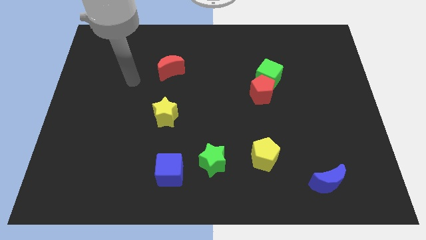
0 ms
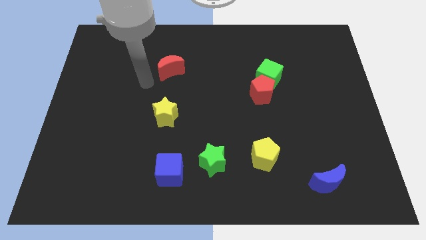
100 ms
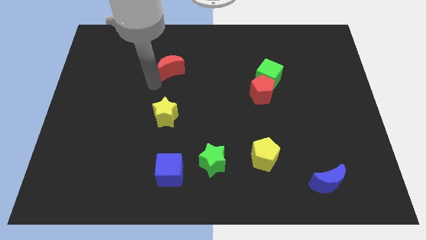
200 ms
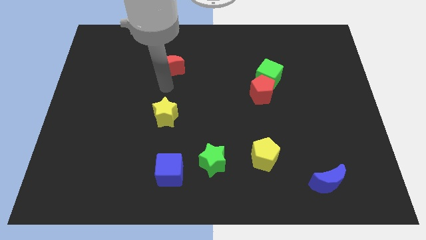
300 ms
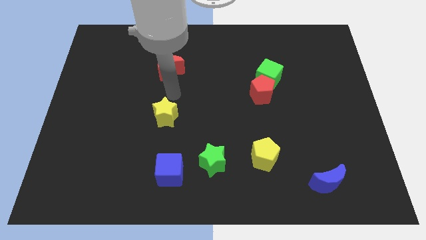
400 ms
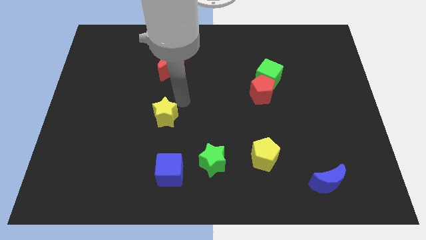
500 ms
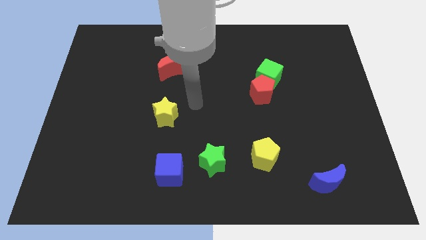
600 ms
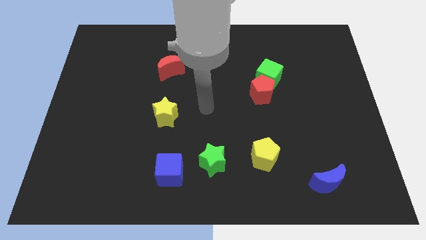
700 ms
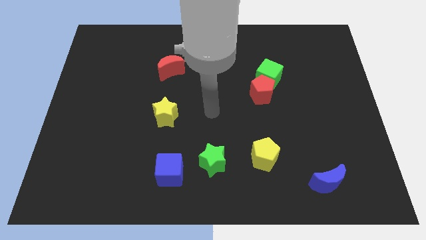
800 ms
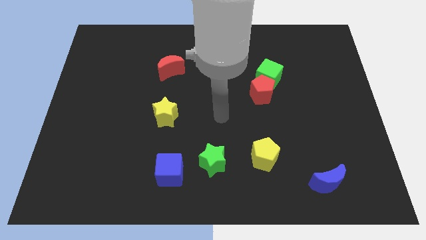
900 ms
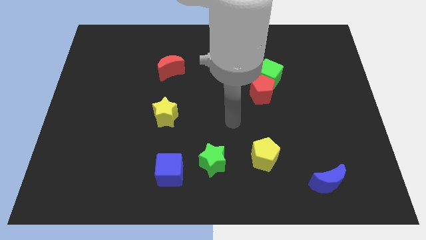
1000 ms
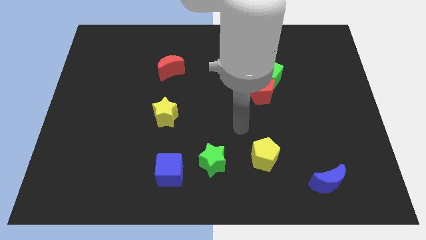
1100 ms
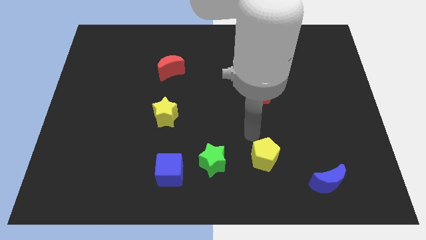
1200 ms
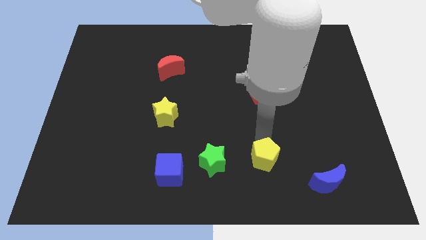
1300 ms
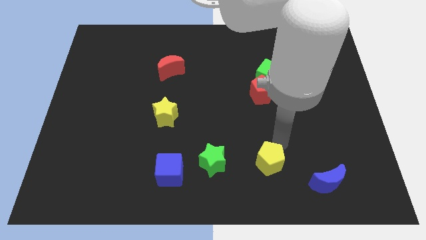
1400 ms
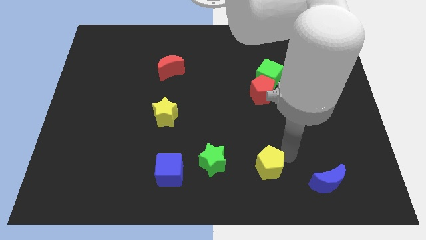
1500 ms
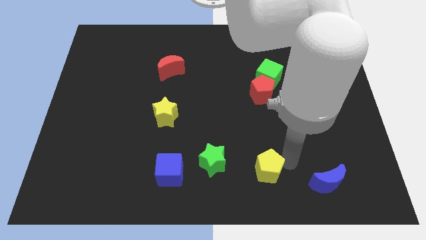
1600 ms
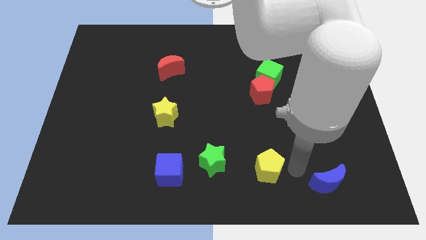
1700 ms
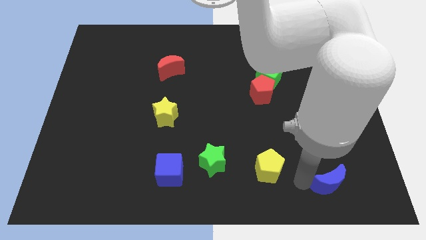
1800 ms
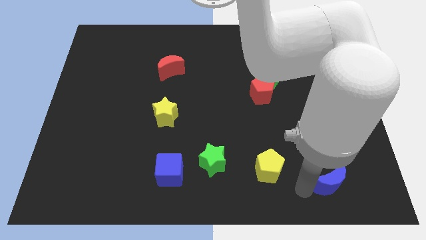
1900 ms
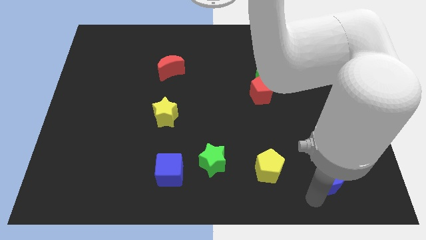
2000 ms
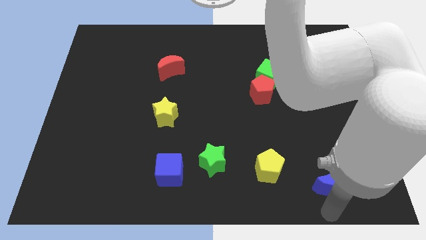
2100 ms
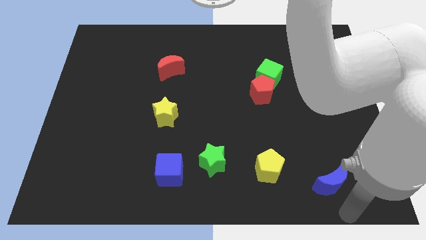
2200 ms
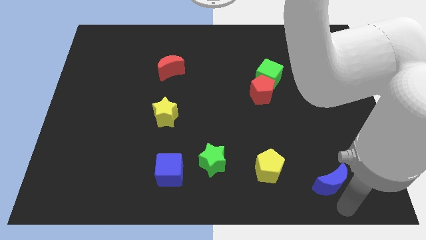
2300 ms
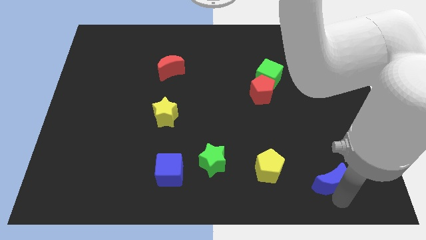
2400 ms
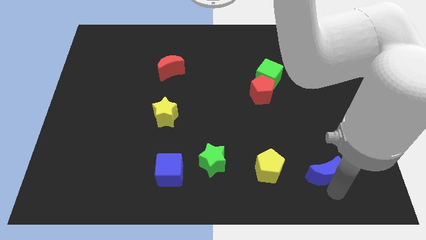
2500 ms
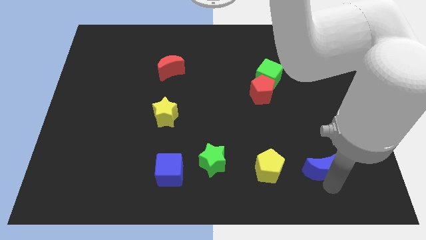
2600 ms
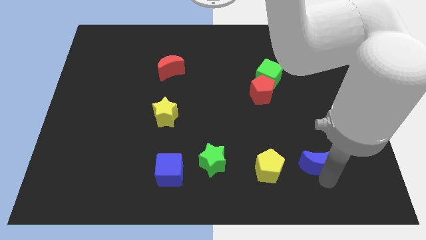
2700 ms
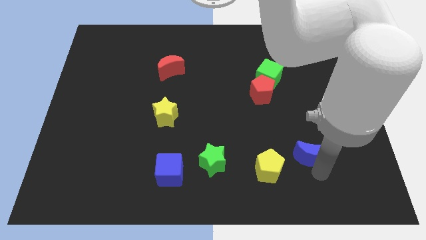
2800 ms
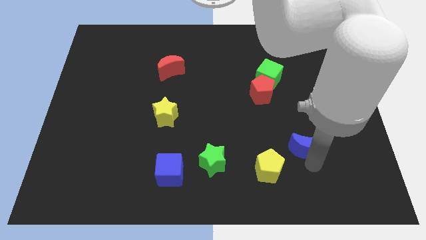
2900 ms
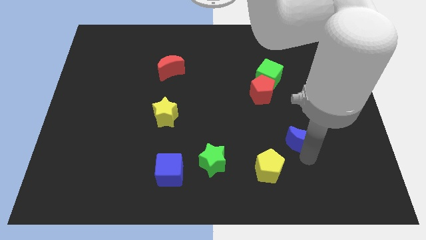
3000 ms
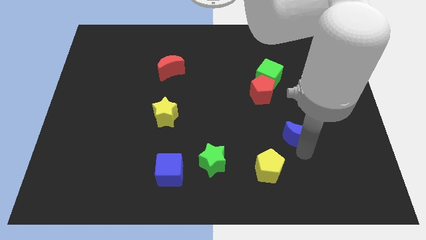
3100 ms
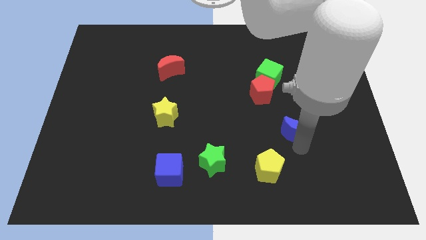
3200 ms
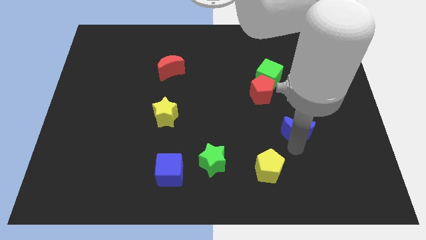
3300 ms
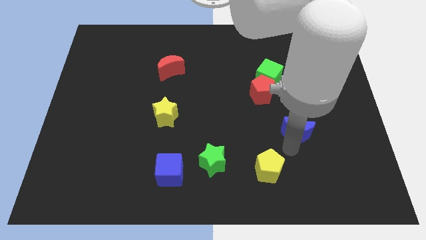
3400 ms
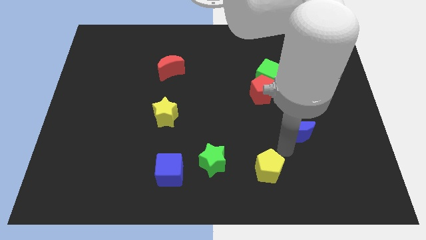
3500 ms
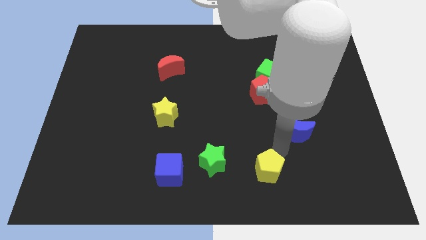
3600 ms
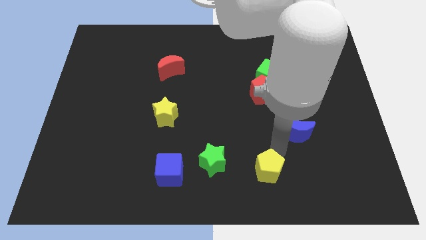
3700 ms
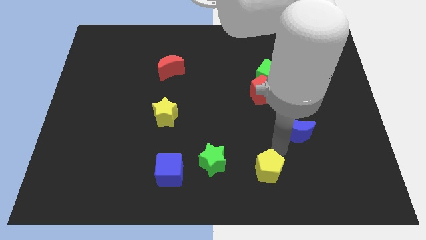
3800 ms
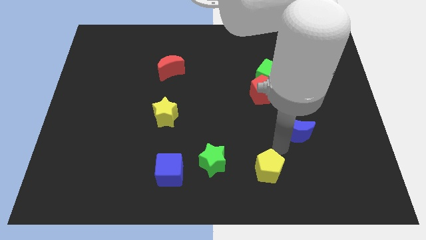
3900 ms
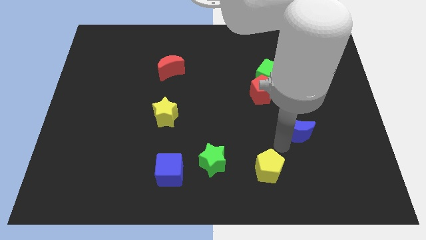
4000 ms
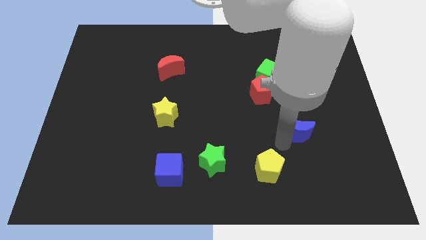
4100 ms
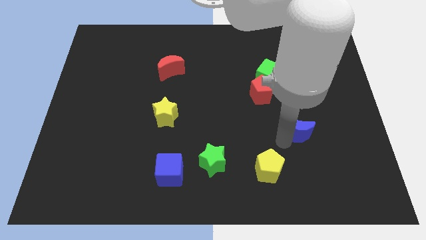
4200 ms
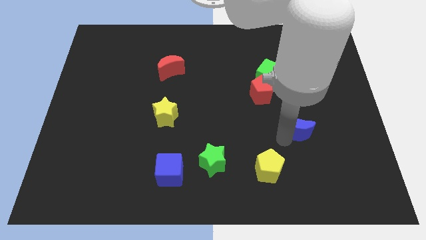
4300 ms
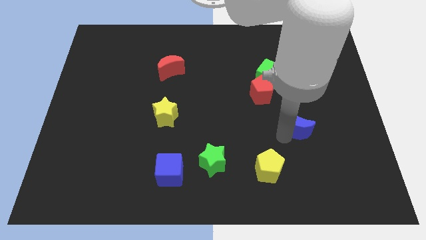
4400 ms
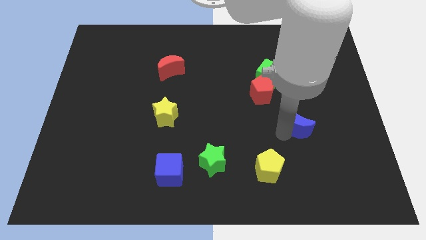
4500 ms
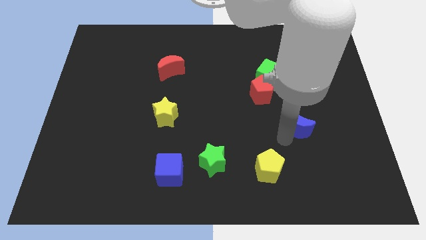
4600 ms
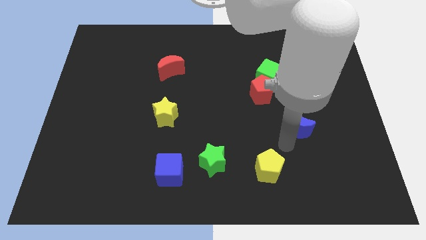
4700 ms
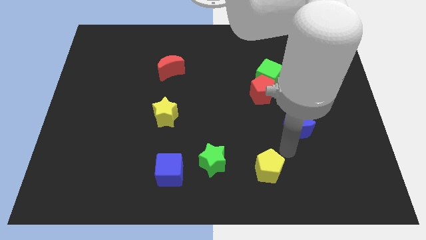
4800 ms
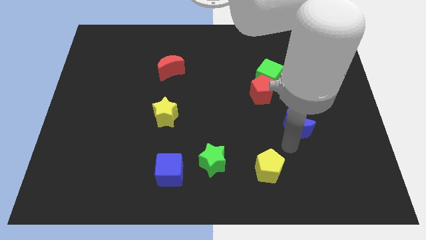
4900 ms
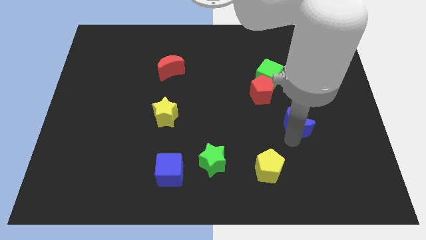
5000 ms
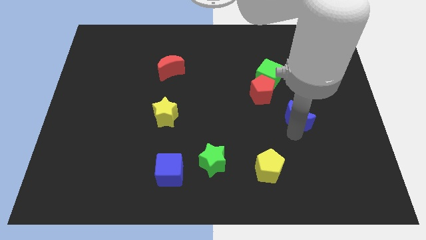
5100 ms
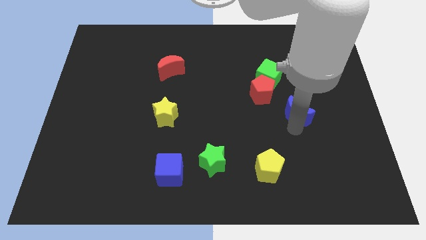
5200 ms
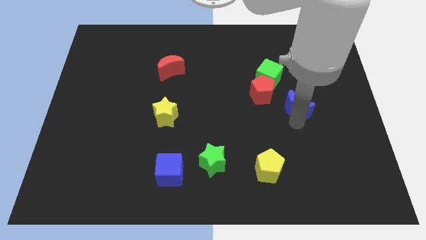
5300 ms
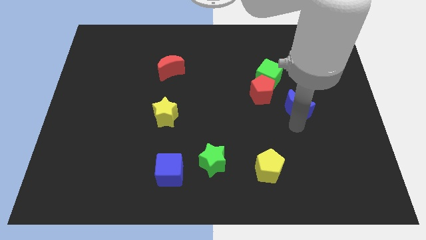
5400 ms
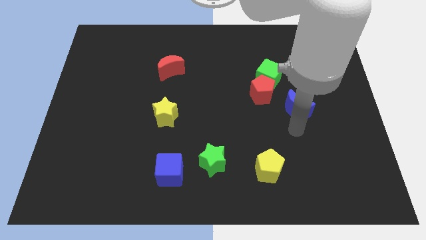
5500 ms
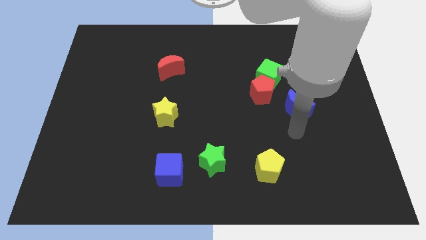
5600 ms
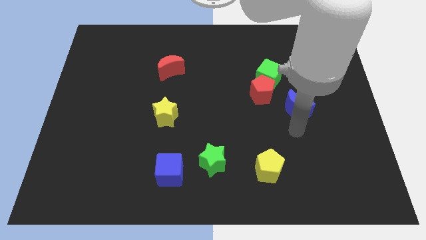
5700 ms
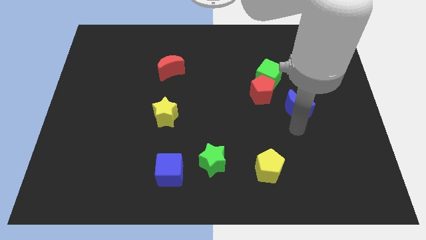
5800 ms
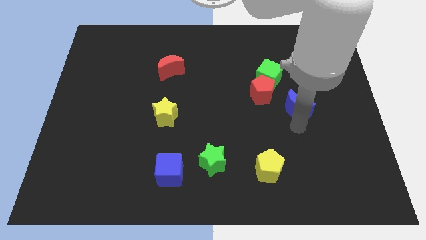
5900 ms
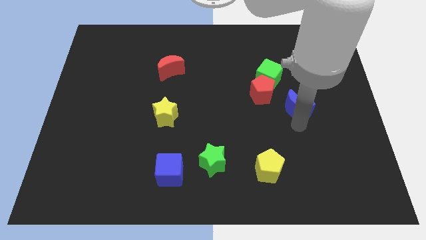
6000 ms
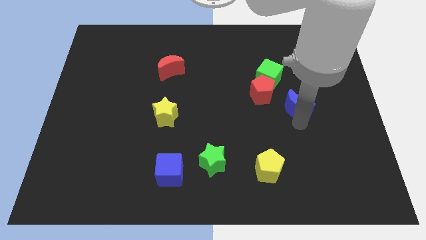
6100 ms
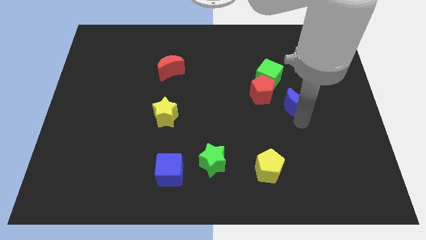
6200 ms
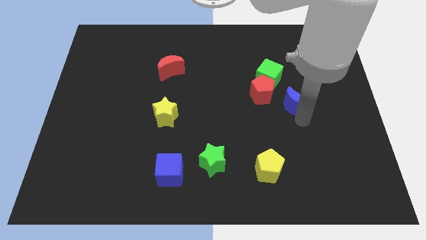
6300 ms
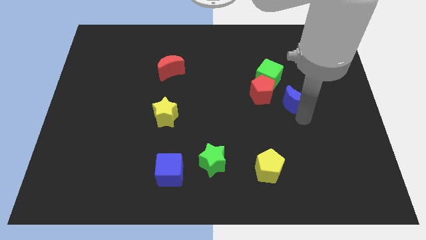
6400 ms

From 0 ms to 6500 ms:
slide the blue moon up

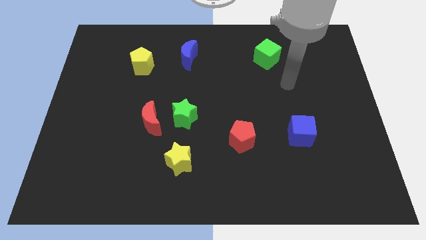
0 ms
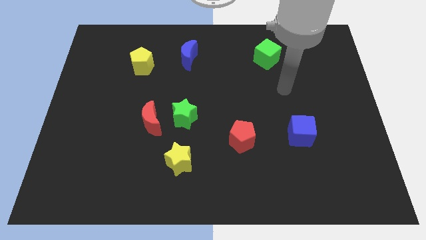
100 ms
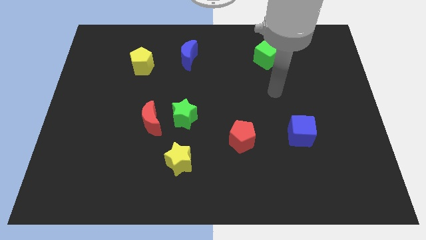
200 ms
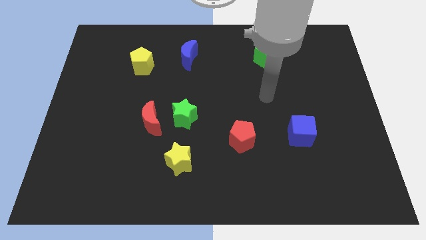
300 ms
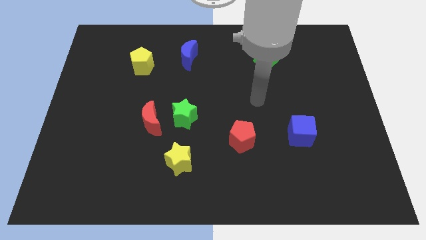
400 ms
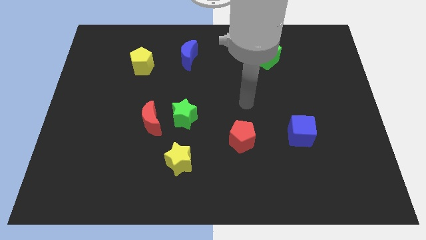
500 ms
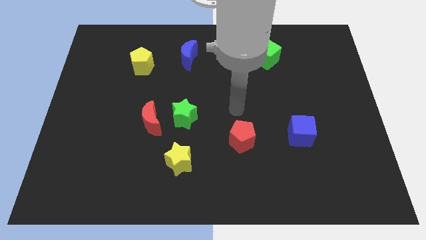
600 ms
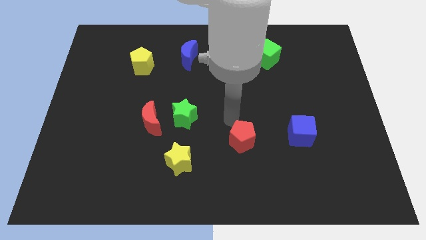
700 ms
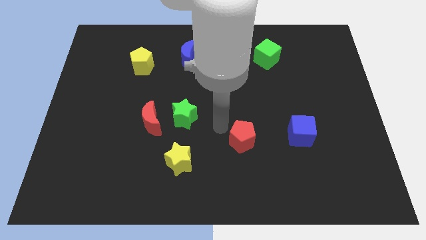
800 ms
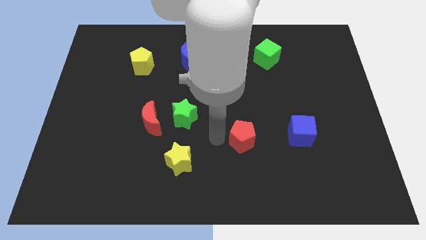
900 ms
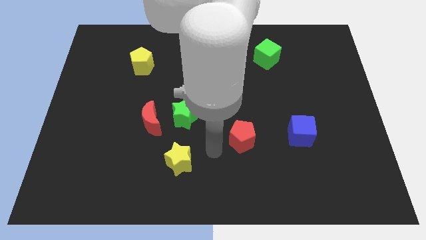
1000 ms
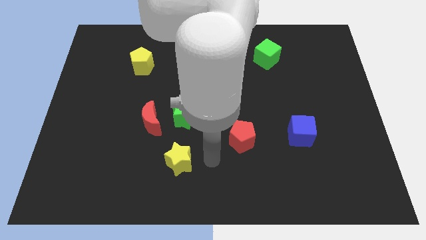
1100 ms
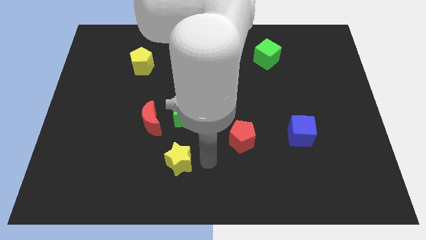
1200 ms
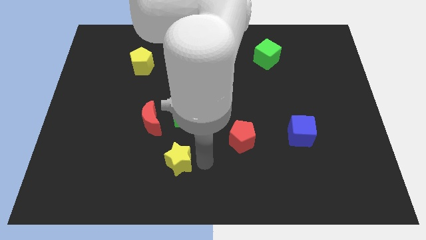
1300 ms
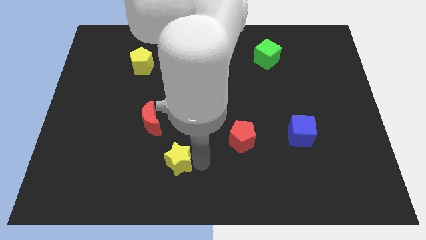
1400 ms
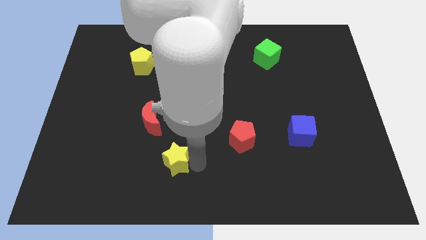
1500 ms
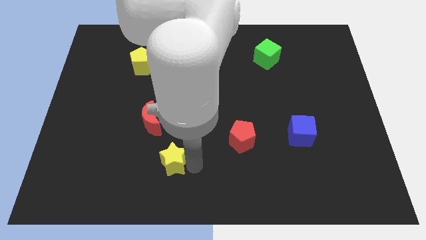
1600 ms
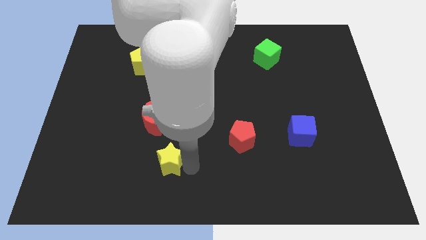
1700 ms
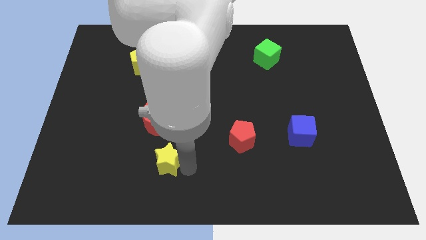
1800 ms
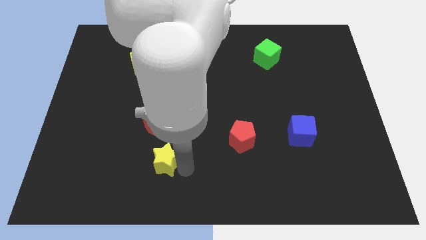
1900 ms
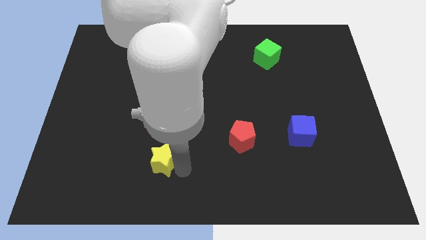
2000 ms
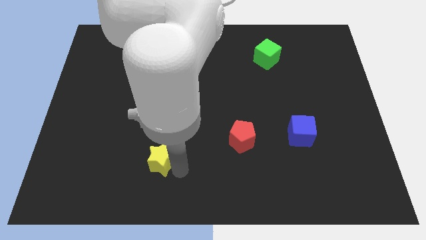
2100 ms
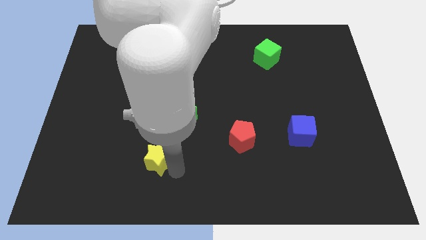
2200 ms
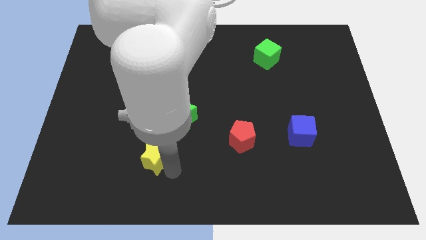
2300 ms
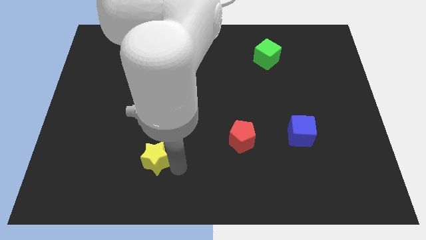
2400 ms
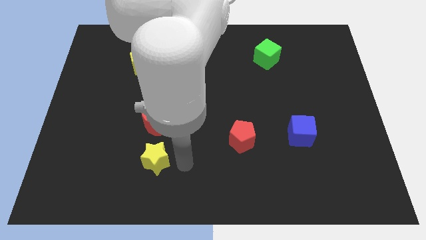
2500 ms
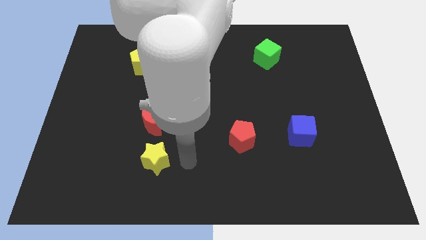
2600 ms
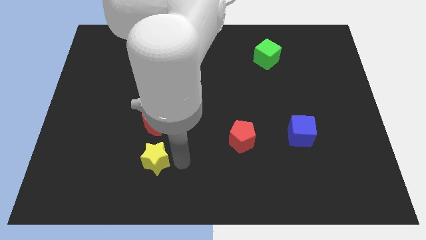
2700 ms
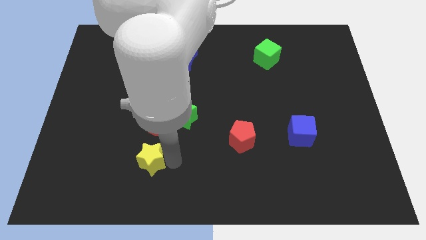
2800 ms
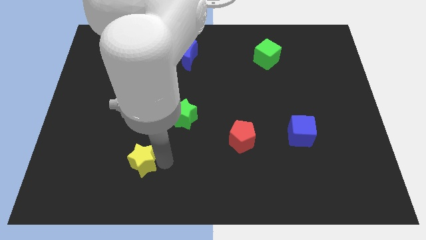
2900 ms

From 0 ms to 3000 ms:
slide the yellow star slightly left
